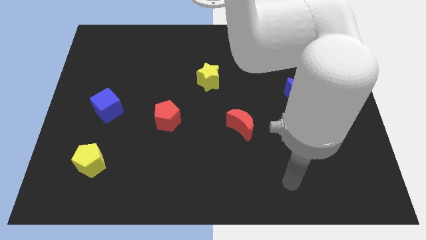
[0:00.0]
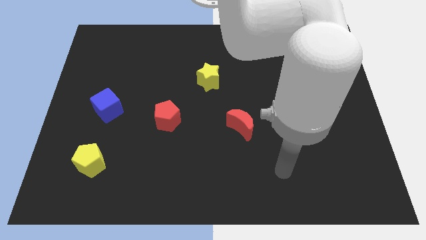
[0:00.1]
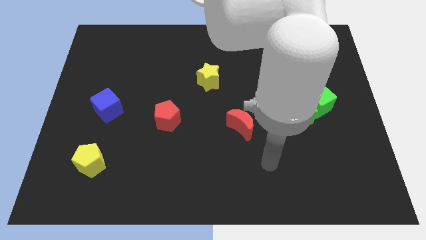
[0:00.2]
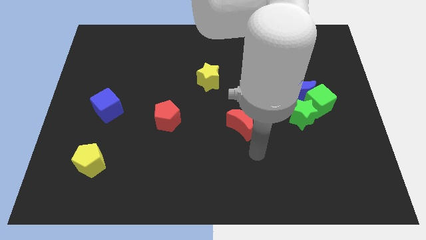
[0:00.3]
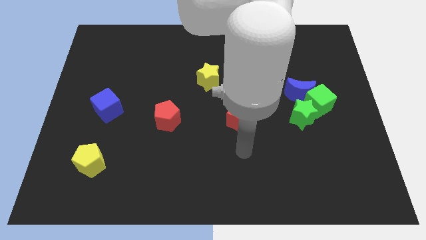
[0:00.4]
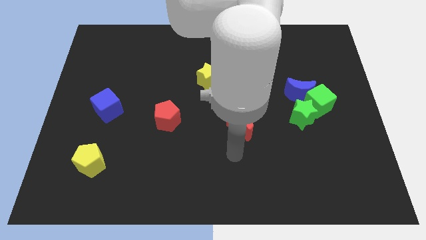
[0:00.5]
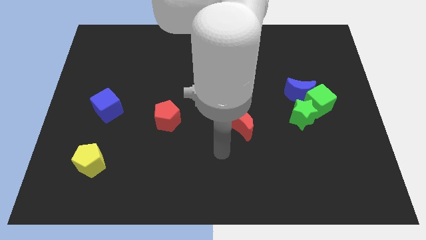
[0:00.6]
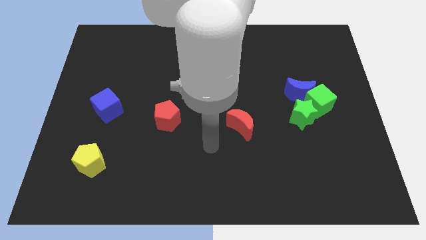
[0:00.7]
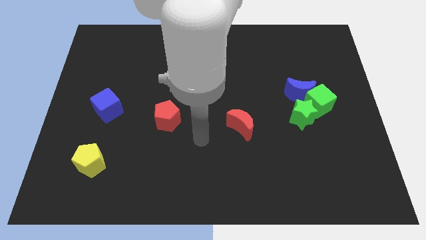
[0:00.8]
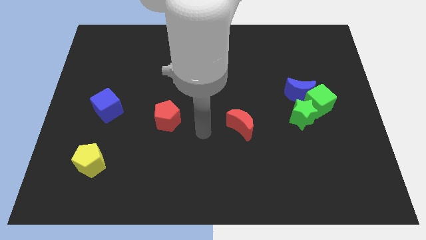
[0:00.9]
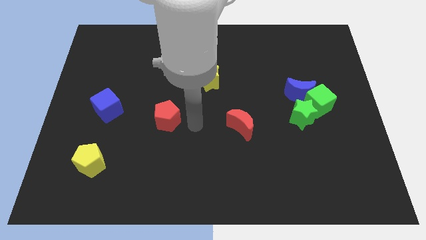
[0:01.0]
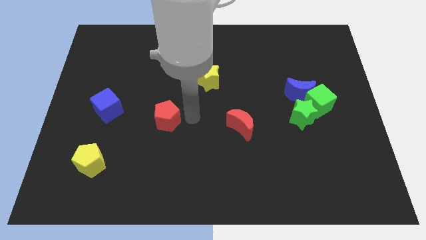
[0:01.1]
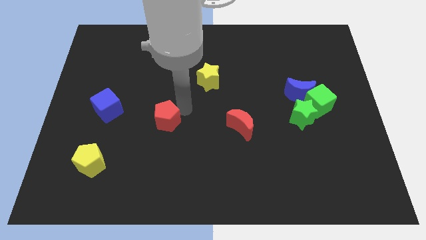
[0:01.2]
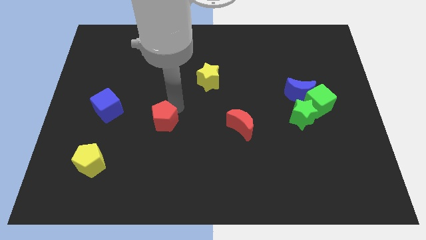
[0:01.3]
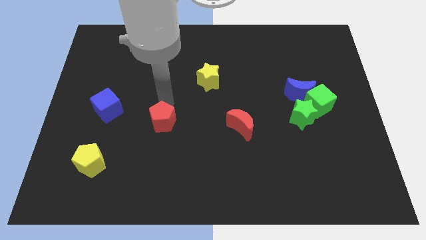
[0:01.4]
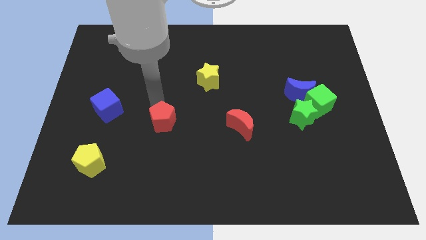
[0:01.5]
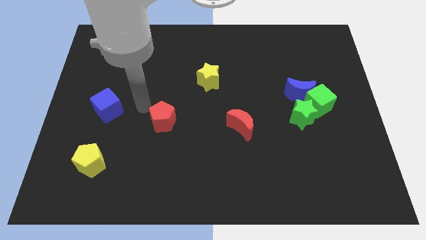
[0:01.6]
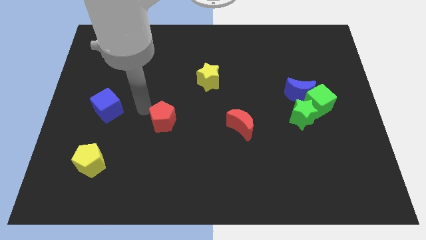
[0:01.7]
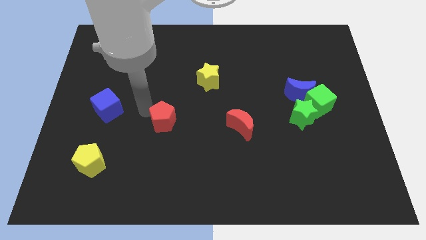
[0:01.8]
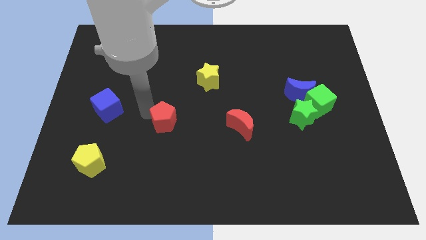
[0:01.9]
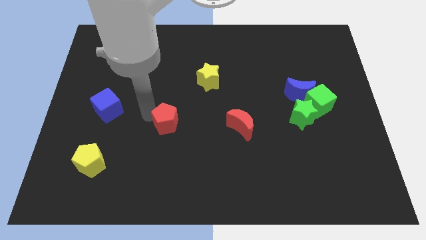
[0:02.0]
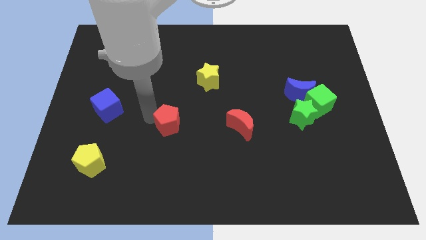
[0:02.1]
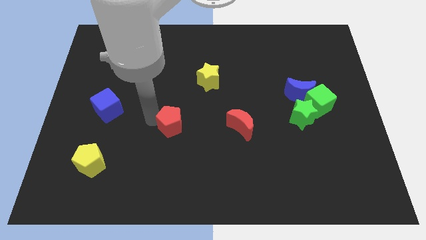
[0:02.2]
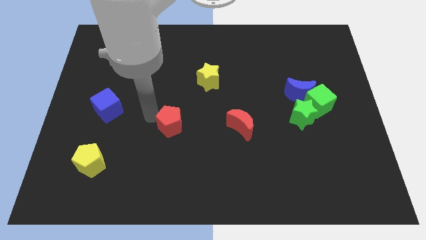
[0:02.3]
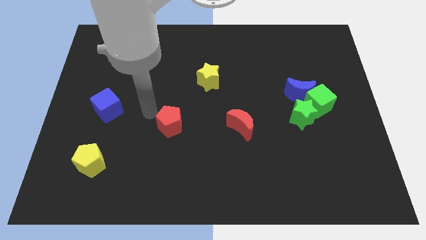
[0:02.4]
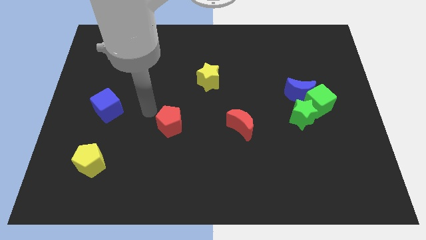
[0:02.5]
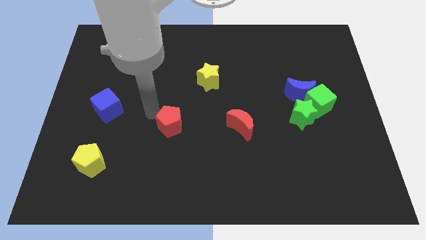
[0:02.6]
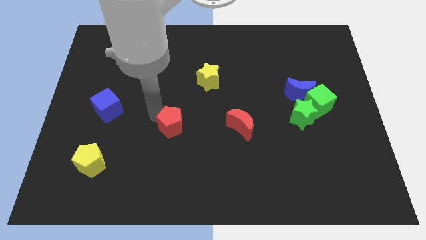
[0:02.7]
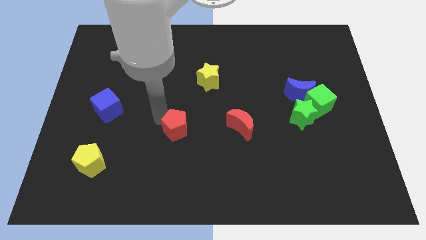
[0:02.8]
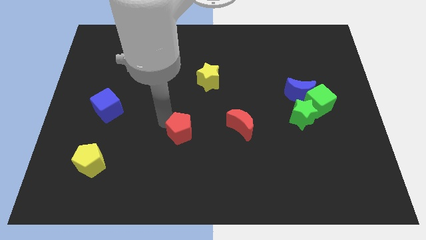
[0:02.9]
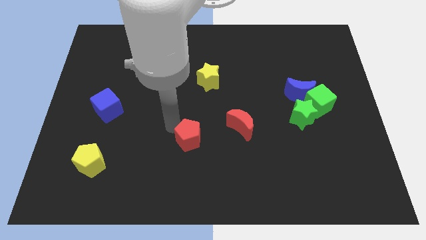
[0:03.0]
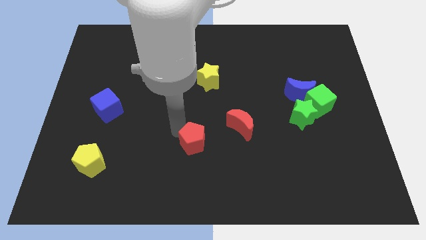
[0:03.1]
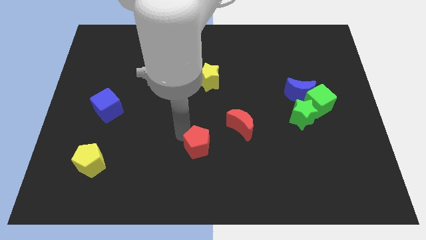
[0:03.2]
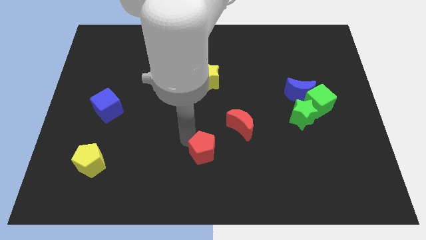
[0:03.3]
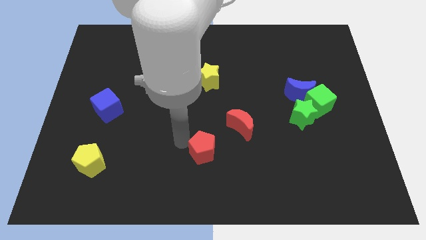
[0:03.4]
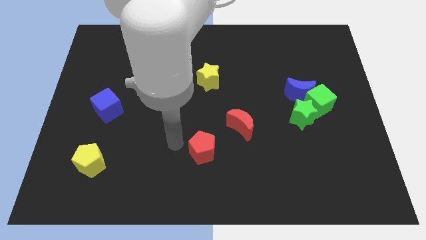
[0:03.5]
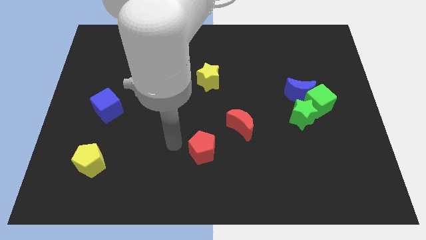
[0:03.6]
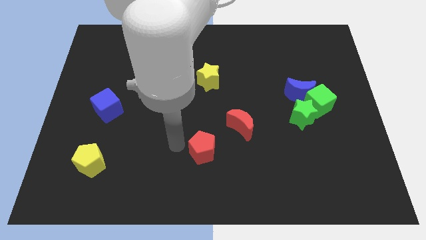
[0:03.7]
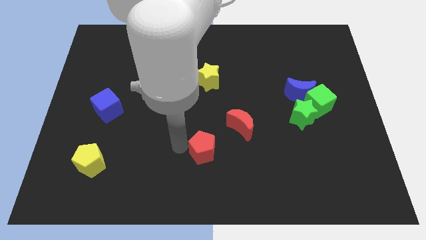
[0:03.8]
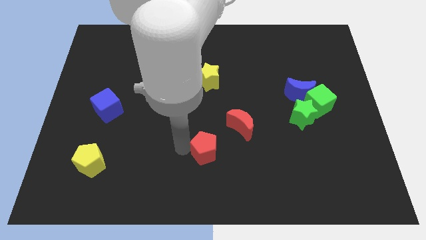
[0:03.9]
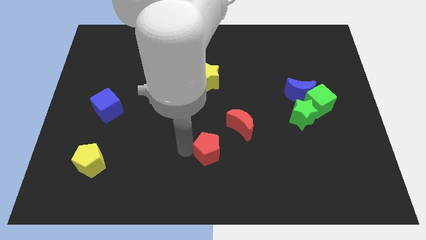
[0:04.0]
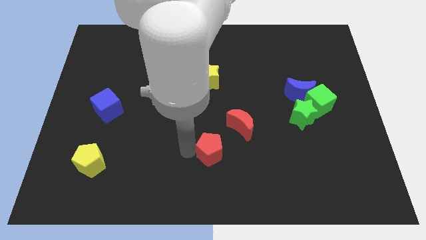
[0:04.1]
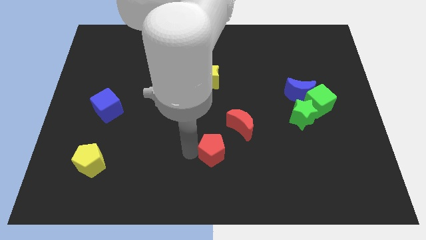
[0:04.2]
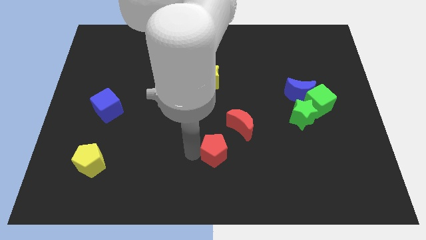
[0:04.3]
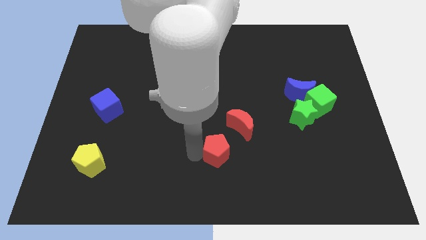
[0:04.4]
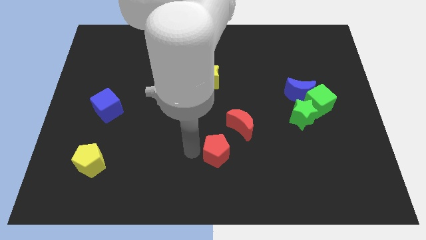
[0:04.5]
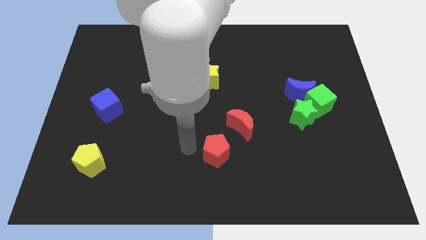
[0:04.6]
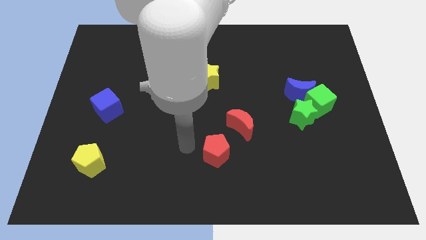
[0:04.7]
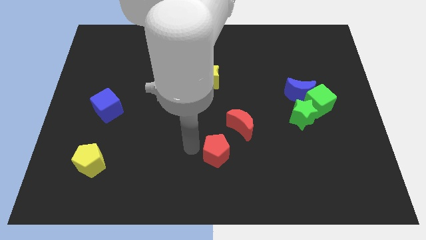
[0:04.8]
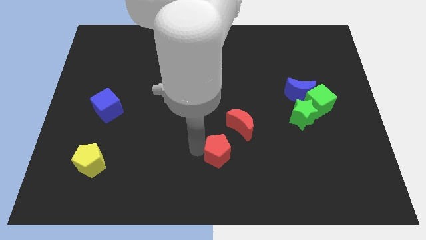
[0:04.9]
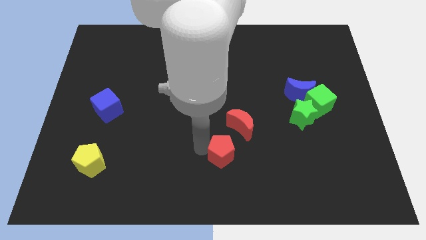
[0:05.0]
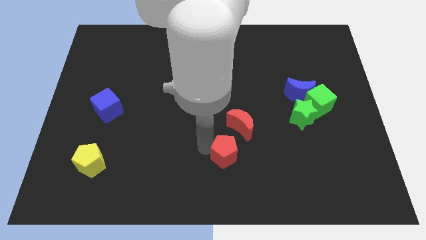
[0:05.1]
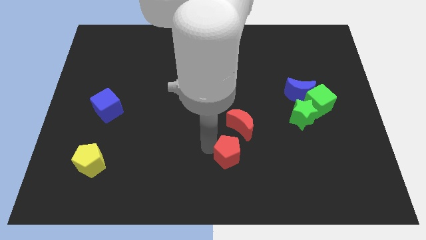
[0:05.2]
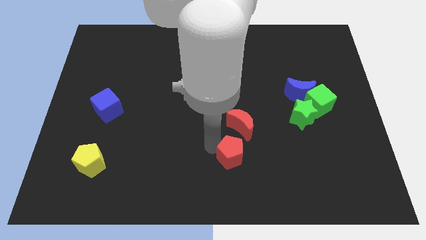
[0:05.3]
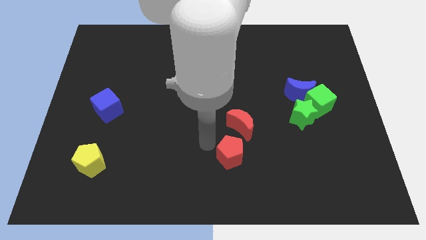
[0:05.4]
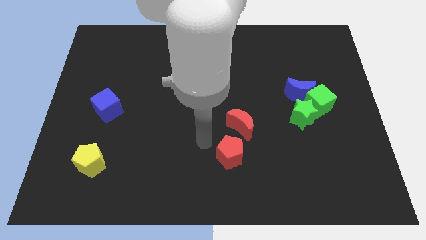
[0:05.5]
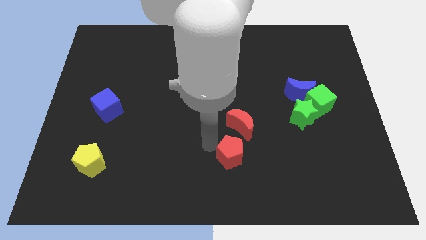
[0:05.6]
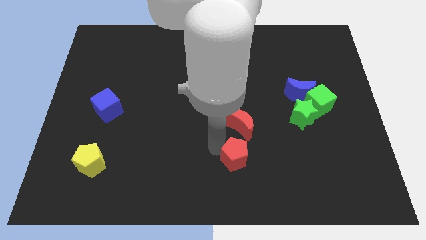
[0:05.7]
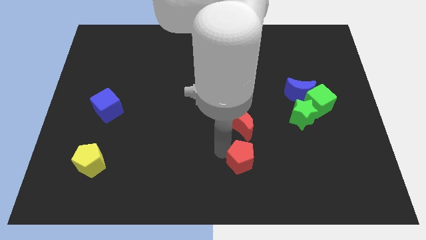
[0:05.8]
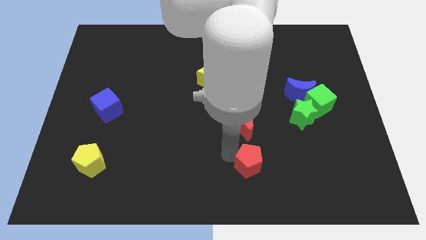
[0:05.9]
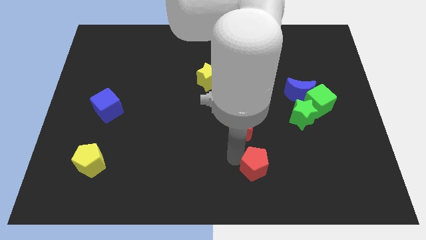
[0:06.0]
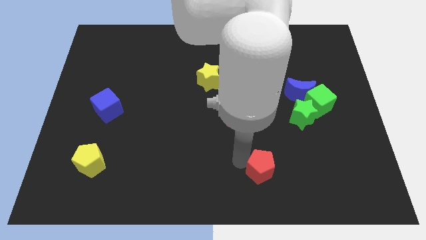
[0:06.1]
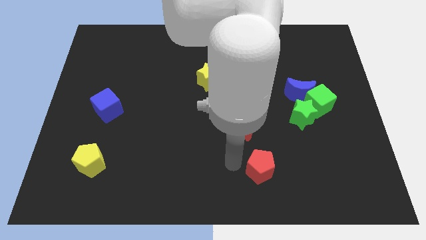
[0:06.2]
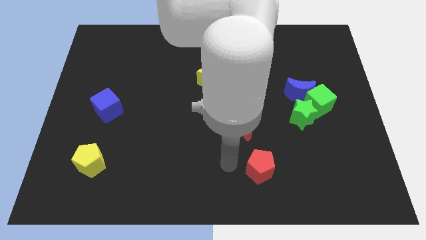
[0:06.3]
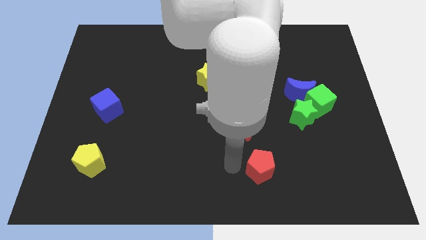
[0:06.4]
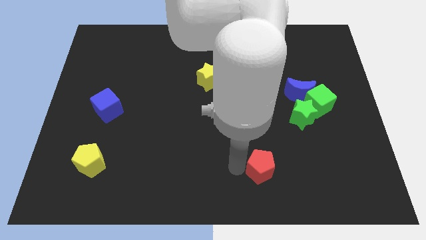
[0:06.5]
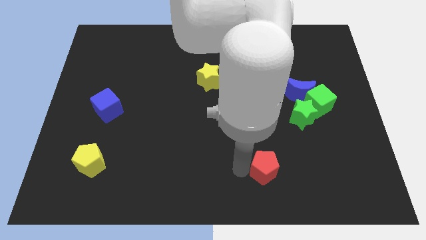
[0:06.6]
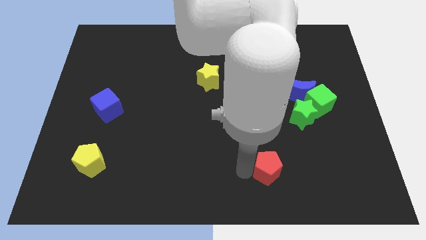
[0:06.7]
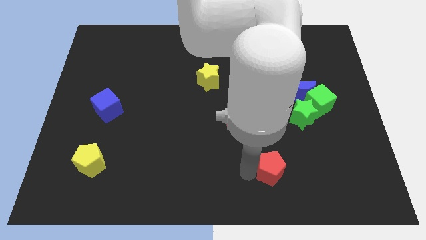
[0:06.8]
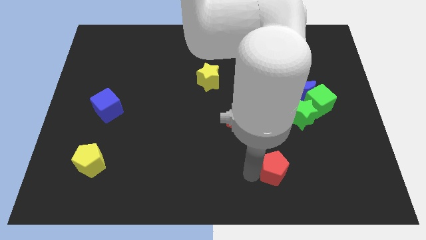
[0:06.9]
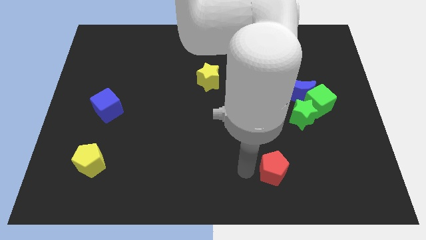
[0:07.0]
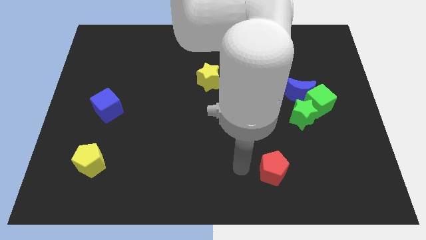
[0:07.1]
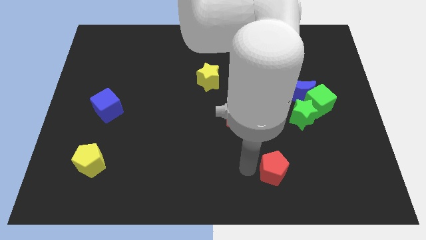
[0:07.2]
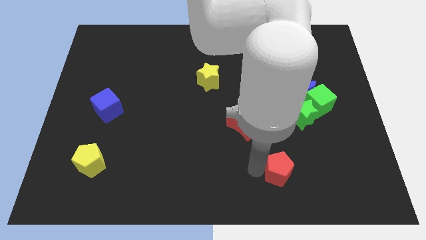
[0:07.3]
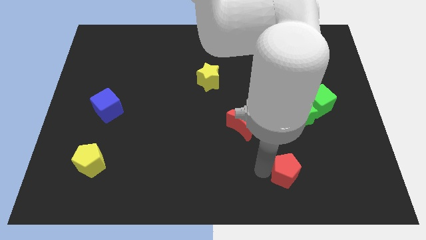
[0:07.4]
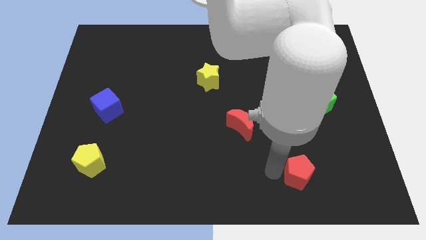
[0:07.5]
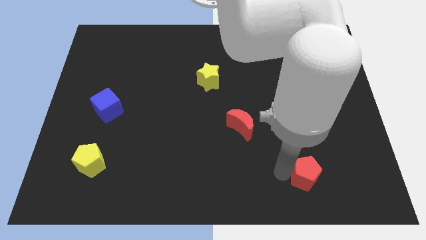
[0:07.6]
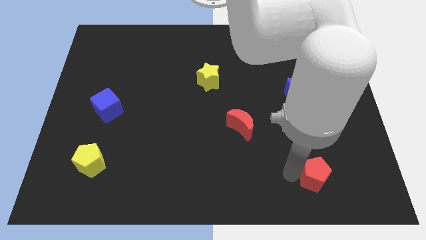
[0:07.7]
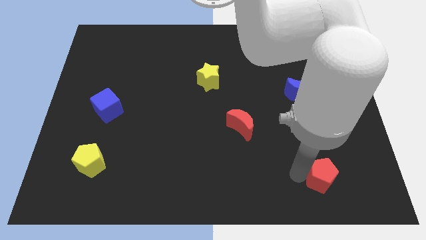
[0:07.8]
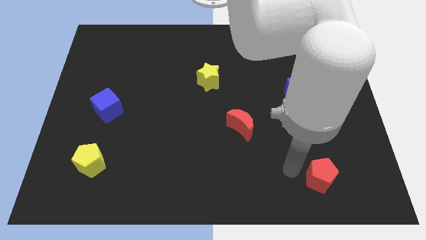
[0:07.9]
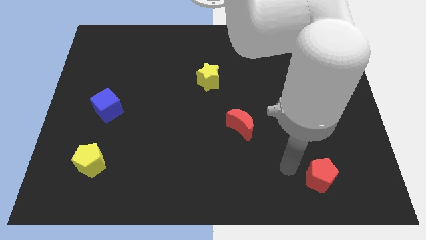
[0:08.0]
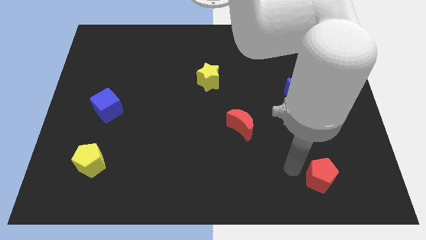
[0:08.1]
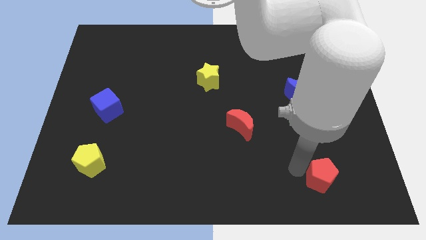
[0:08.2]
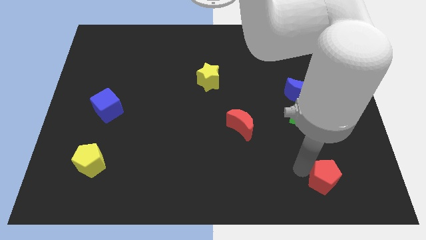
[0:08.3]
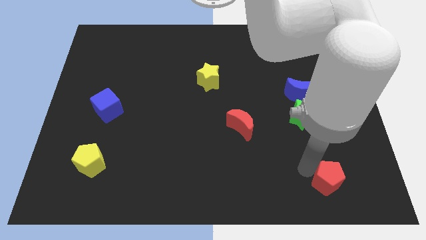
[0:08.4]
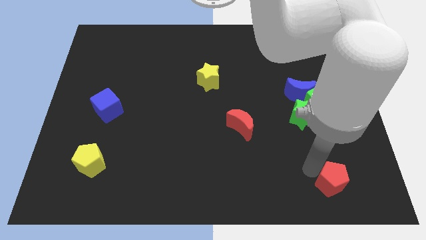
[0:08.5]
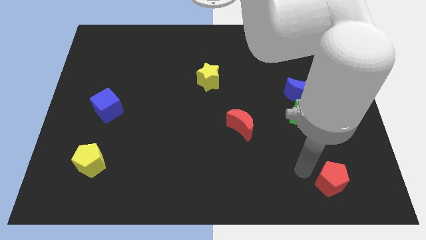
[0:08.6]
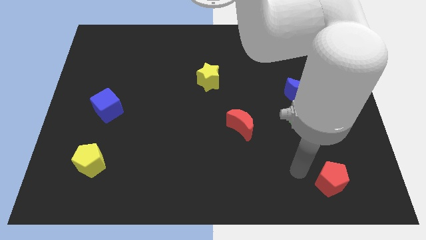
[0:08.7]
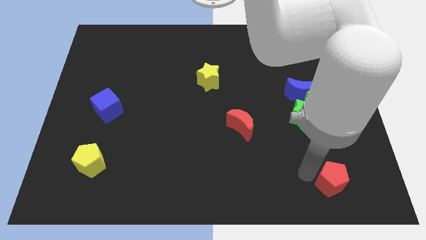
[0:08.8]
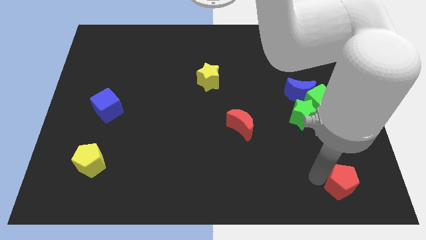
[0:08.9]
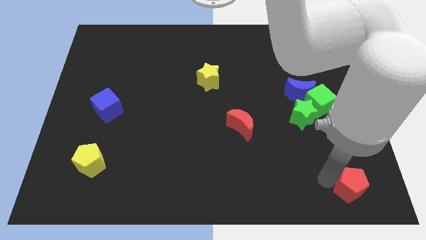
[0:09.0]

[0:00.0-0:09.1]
put the red pentagon to the bottom right corner
